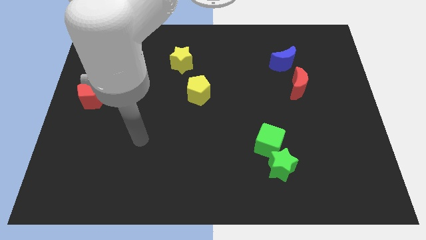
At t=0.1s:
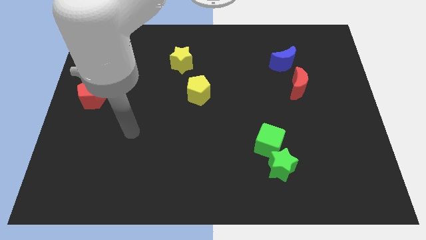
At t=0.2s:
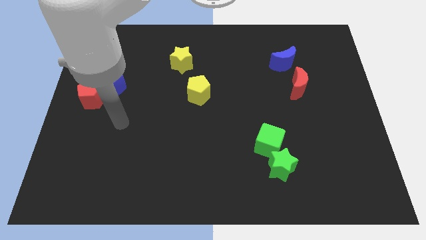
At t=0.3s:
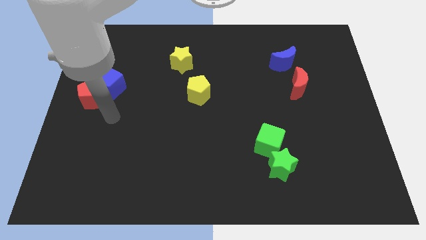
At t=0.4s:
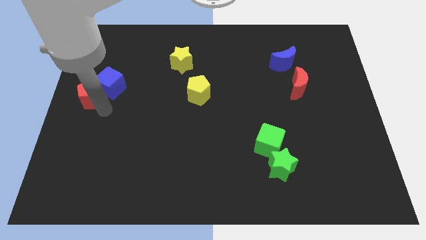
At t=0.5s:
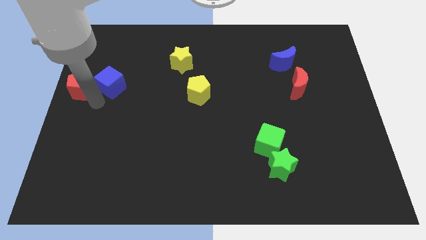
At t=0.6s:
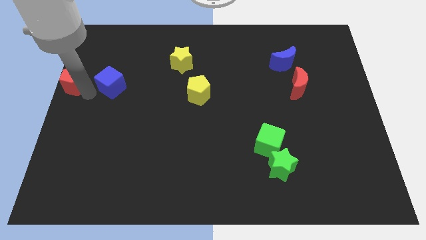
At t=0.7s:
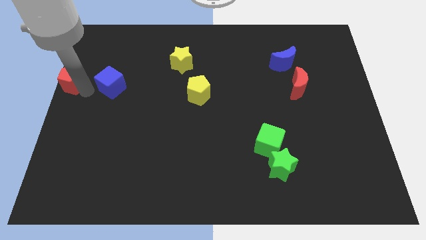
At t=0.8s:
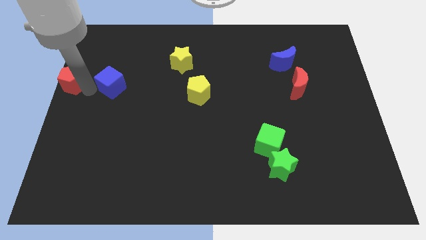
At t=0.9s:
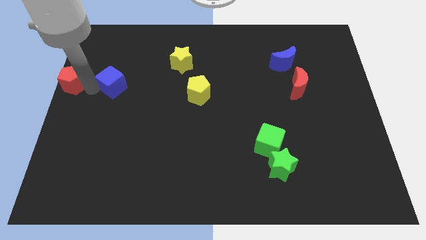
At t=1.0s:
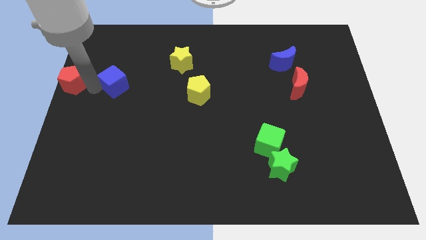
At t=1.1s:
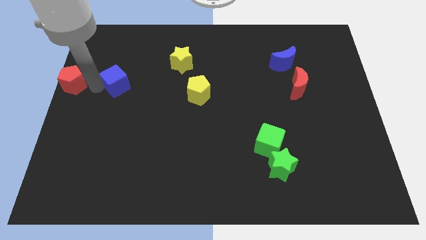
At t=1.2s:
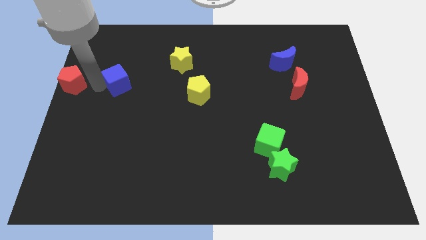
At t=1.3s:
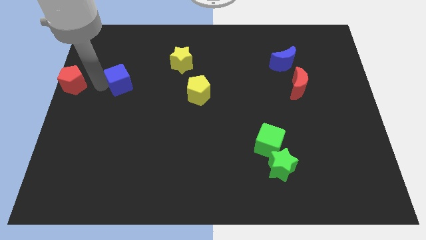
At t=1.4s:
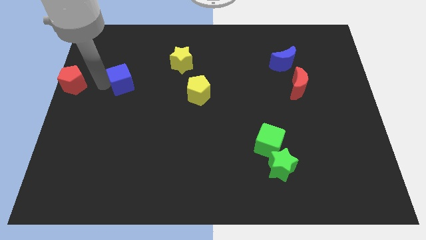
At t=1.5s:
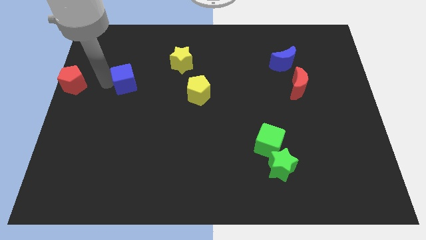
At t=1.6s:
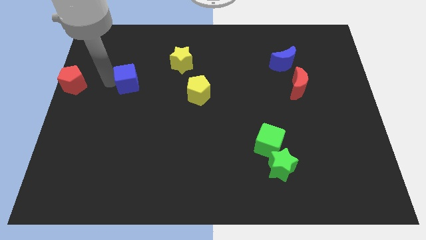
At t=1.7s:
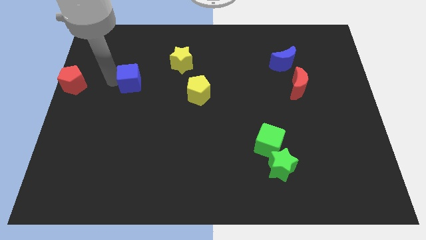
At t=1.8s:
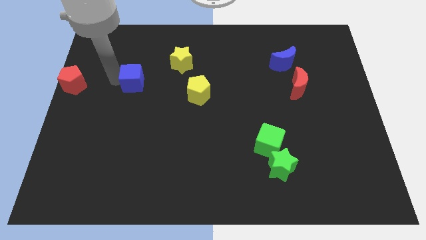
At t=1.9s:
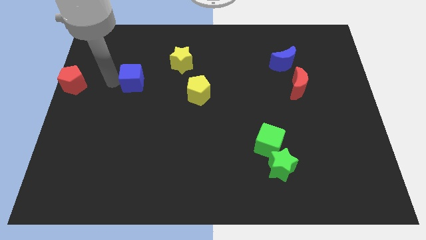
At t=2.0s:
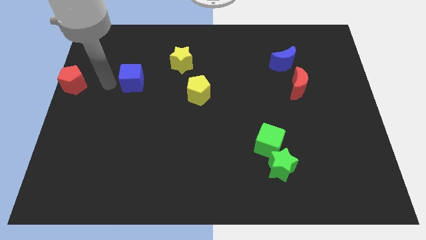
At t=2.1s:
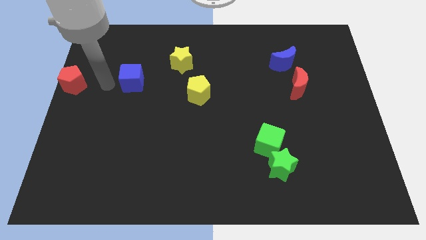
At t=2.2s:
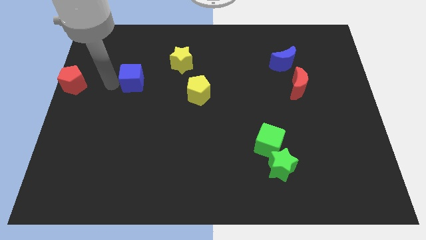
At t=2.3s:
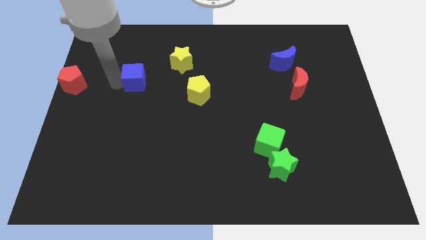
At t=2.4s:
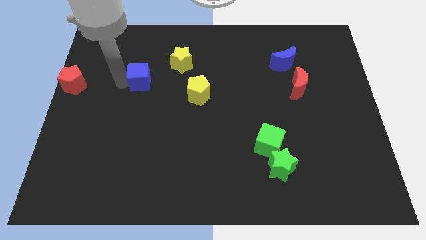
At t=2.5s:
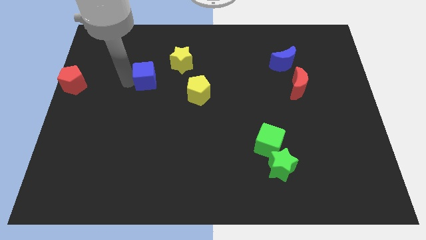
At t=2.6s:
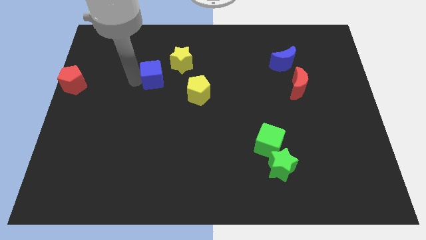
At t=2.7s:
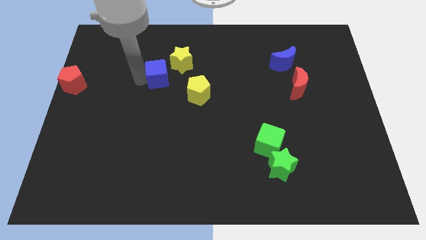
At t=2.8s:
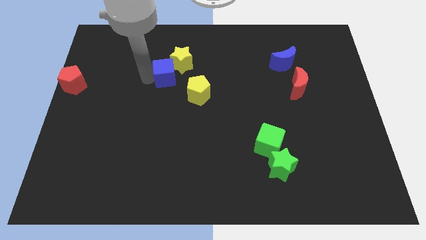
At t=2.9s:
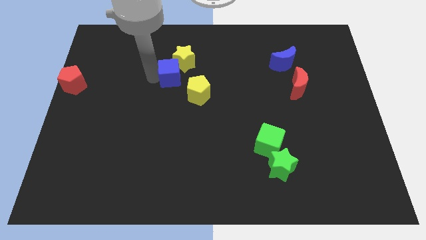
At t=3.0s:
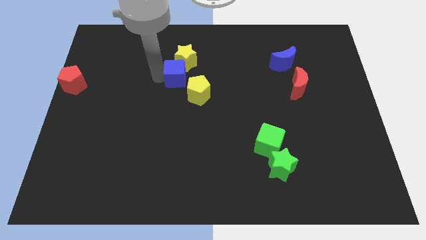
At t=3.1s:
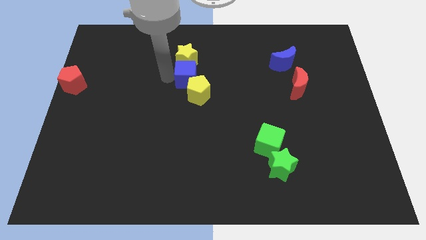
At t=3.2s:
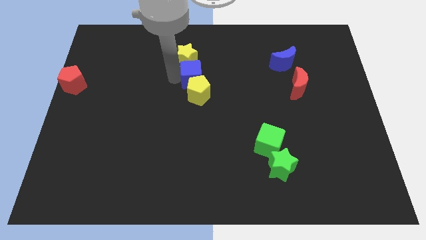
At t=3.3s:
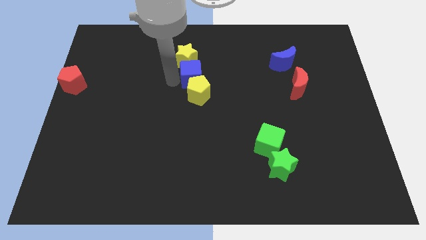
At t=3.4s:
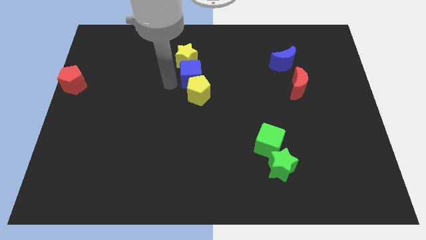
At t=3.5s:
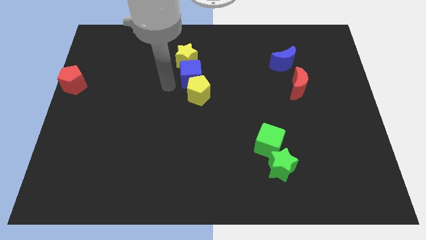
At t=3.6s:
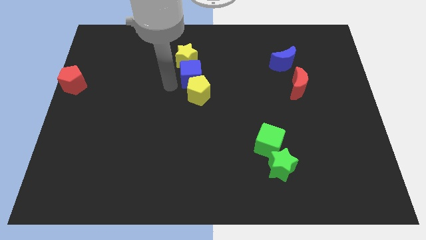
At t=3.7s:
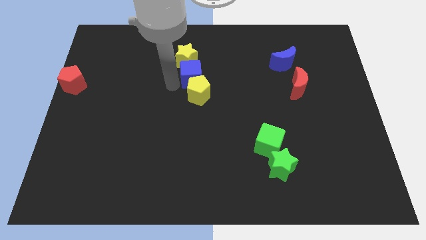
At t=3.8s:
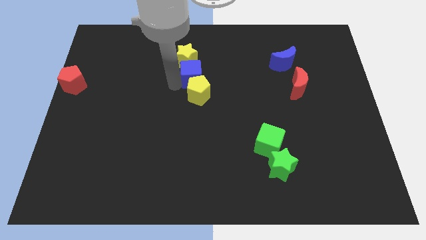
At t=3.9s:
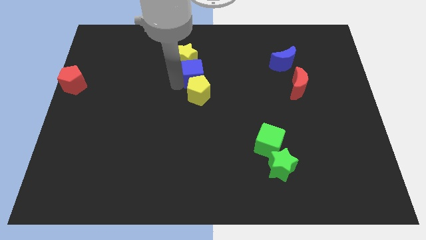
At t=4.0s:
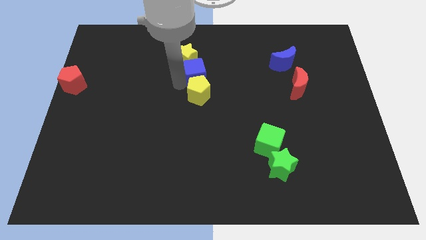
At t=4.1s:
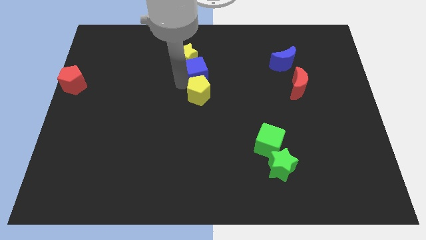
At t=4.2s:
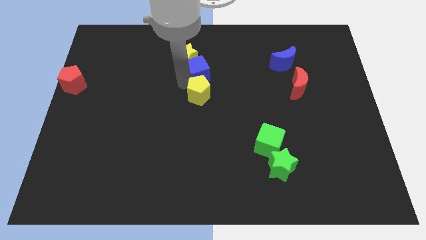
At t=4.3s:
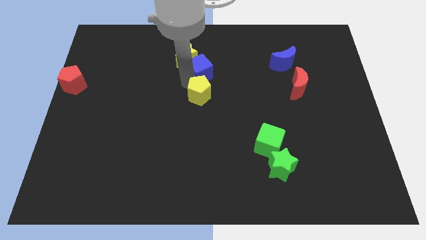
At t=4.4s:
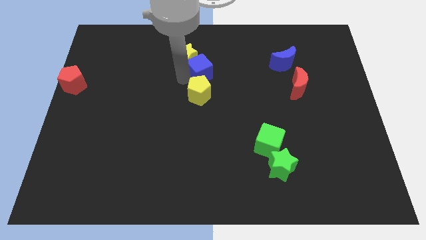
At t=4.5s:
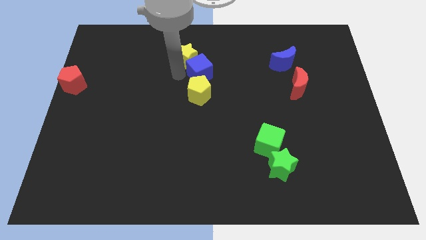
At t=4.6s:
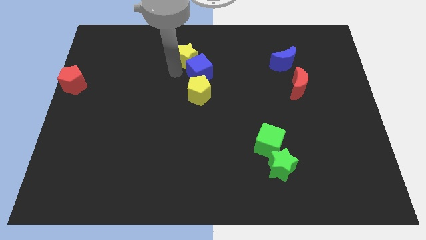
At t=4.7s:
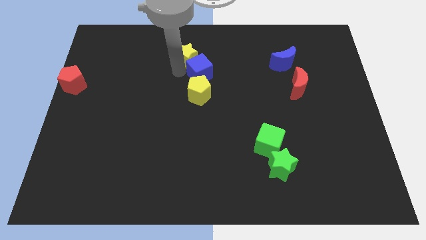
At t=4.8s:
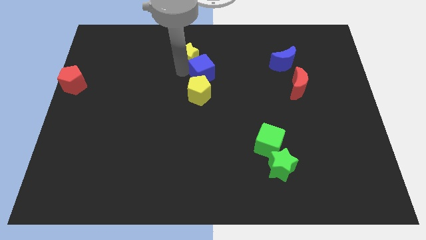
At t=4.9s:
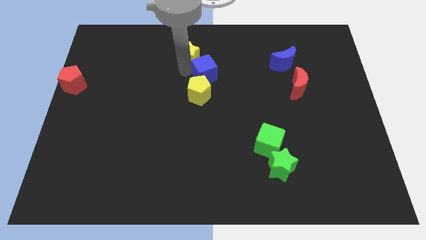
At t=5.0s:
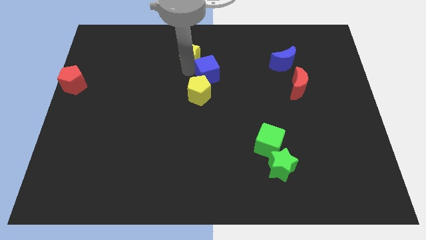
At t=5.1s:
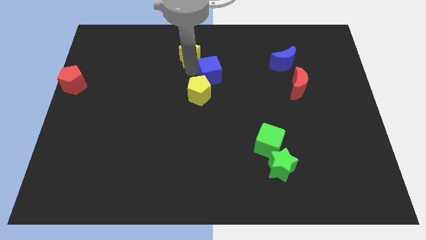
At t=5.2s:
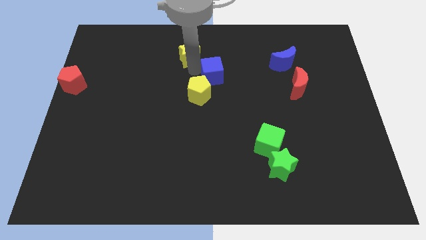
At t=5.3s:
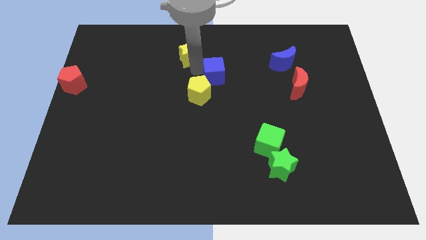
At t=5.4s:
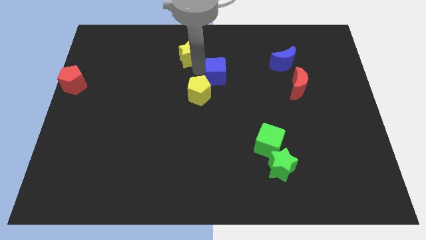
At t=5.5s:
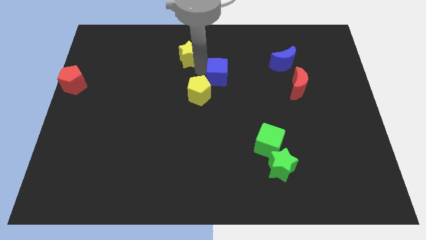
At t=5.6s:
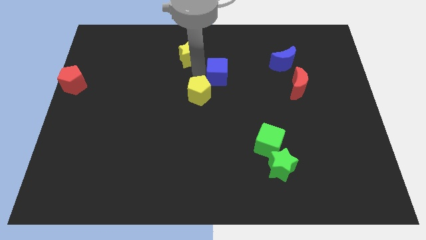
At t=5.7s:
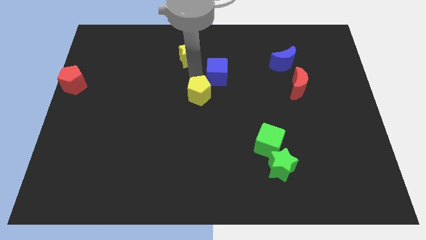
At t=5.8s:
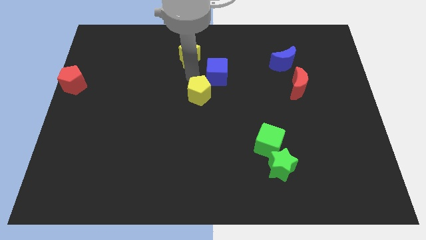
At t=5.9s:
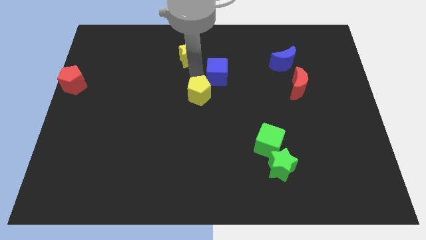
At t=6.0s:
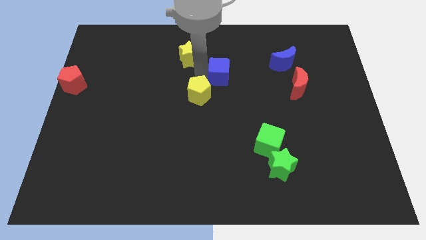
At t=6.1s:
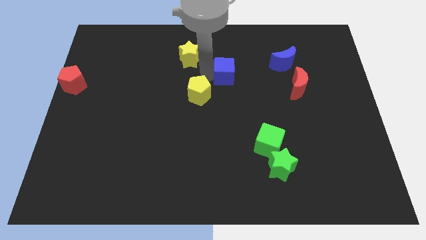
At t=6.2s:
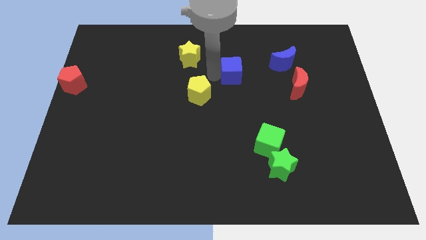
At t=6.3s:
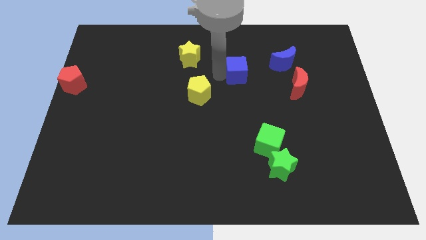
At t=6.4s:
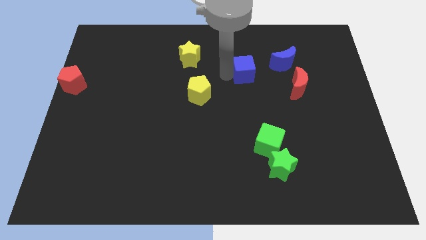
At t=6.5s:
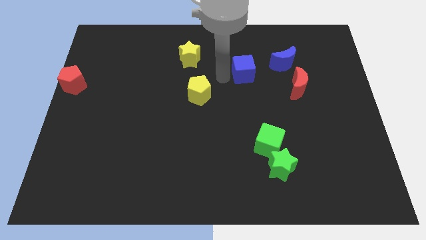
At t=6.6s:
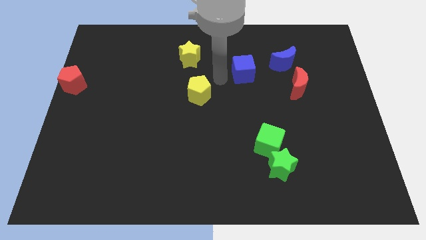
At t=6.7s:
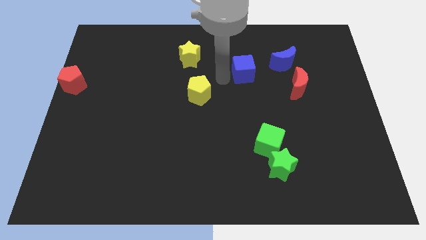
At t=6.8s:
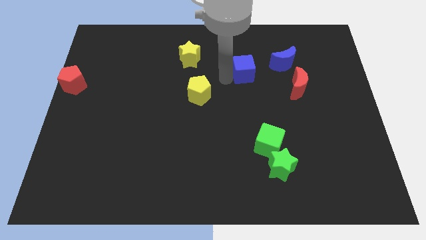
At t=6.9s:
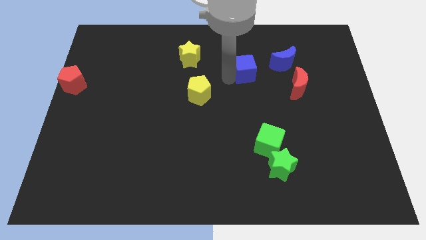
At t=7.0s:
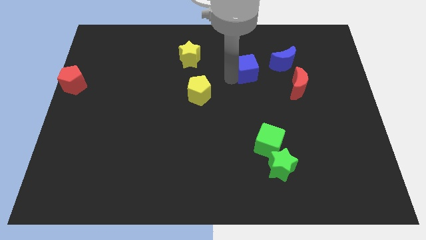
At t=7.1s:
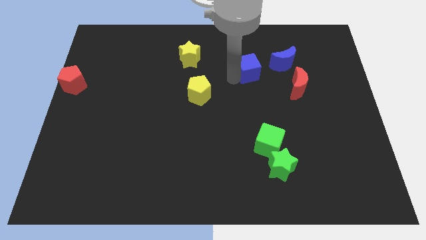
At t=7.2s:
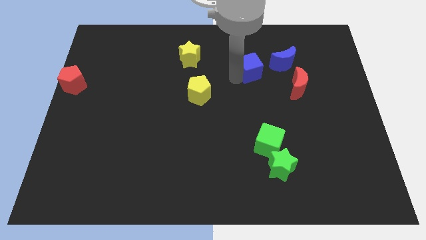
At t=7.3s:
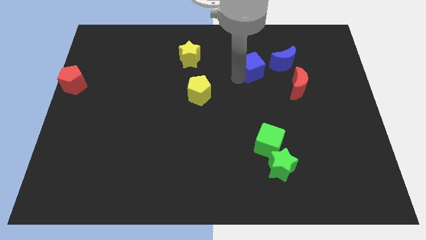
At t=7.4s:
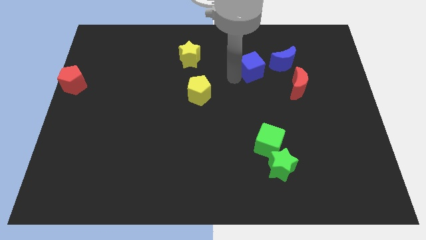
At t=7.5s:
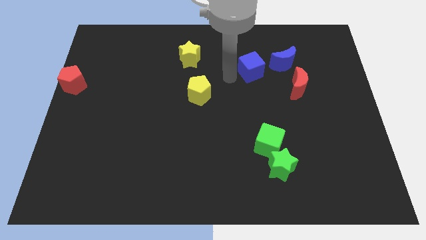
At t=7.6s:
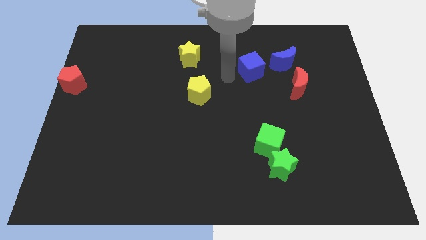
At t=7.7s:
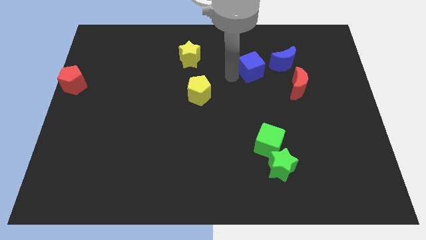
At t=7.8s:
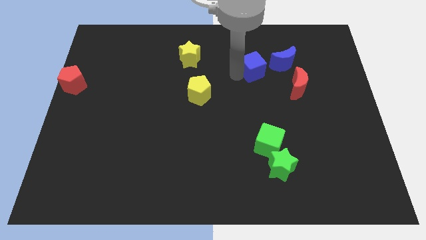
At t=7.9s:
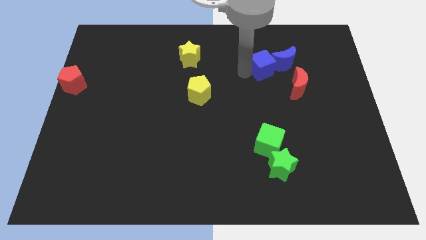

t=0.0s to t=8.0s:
put the blue cube next to the blue moon
